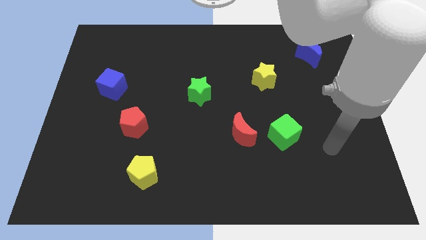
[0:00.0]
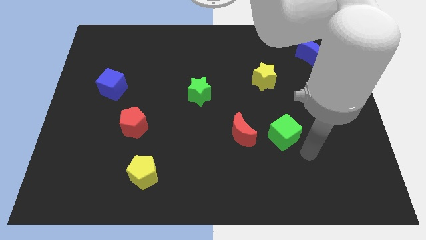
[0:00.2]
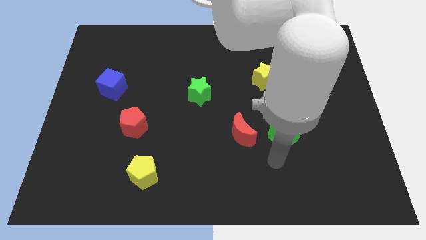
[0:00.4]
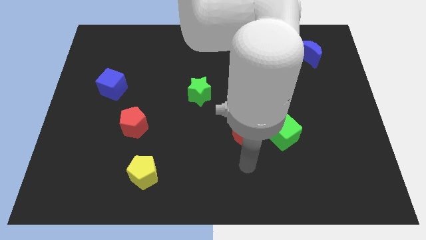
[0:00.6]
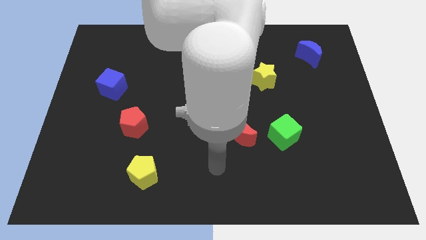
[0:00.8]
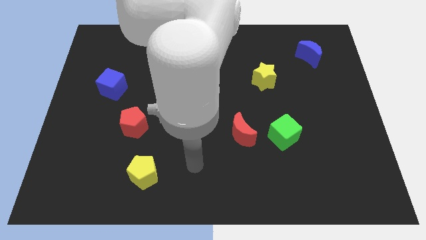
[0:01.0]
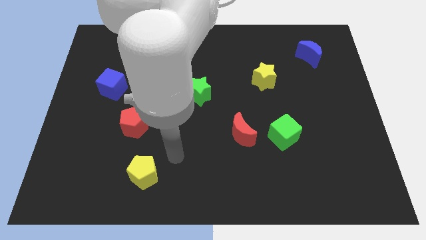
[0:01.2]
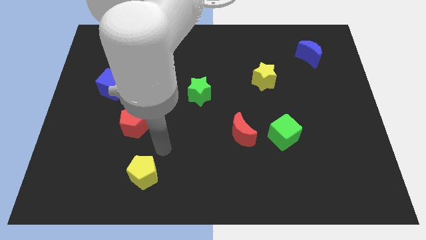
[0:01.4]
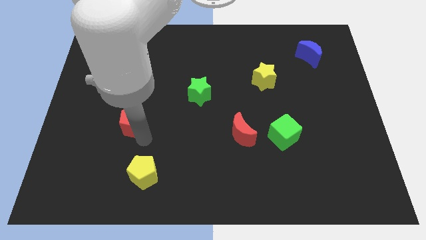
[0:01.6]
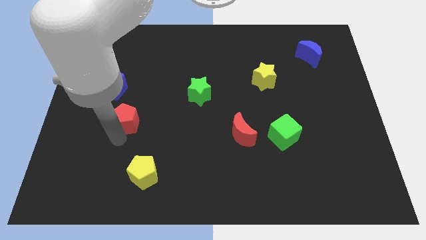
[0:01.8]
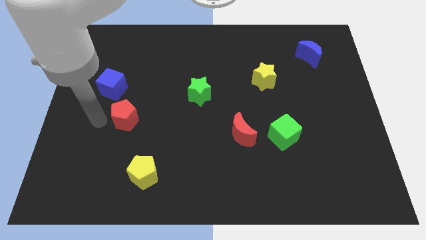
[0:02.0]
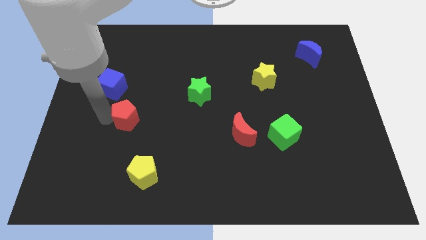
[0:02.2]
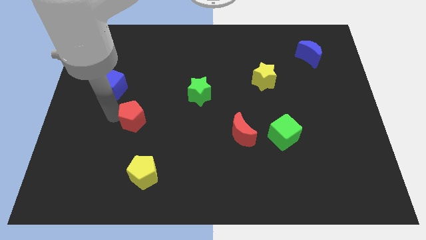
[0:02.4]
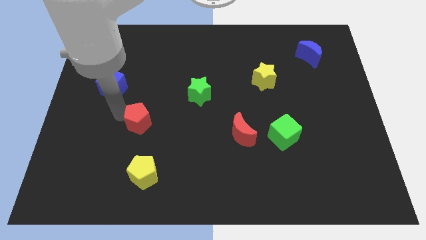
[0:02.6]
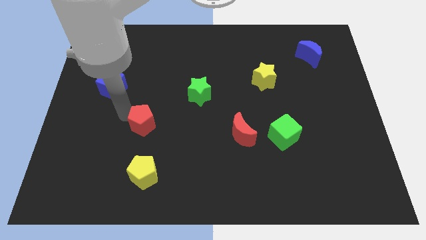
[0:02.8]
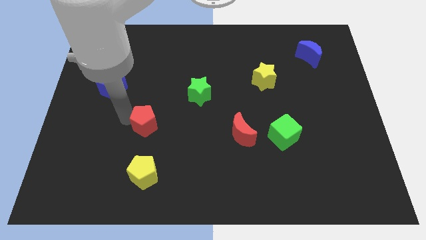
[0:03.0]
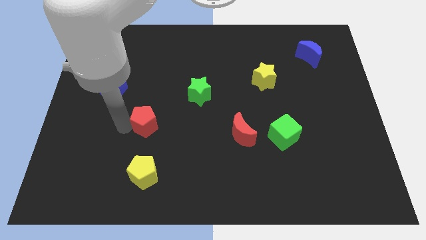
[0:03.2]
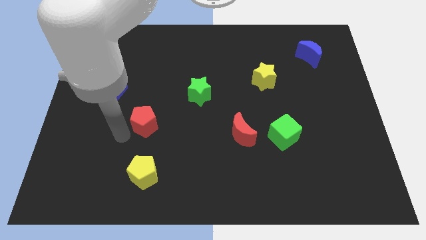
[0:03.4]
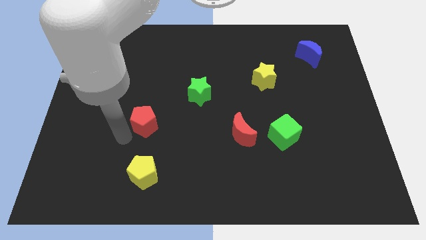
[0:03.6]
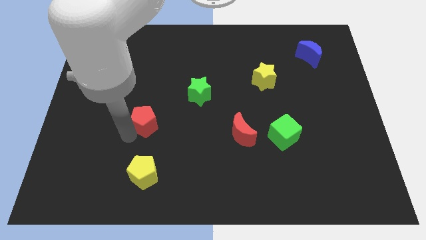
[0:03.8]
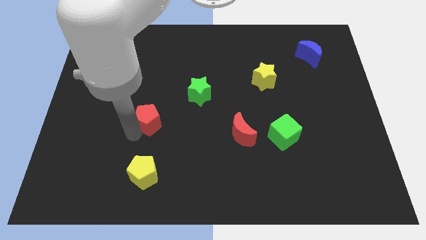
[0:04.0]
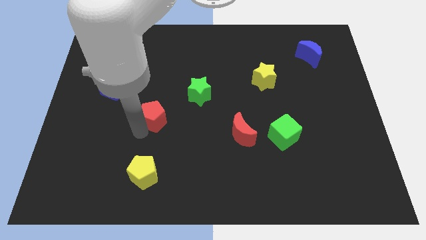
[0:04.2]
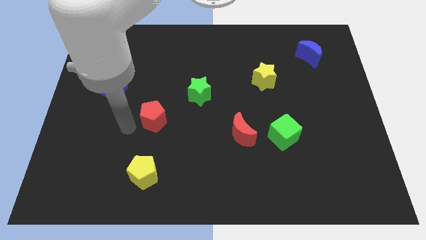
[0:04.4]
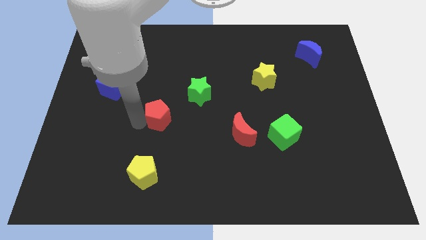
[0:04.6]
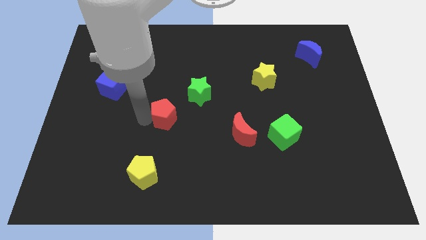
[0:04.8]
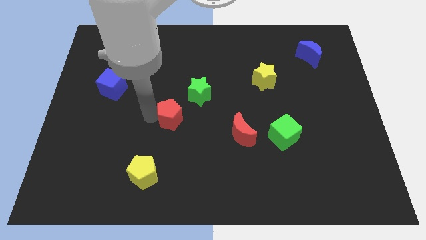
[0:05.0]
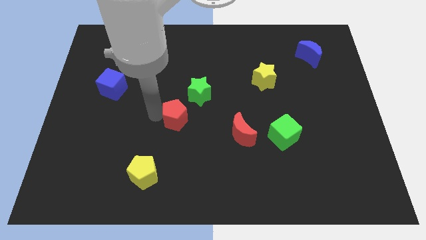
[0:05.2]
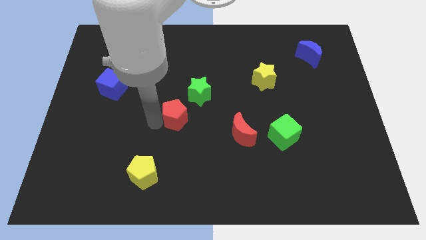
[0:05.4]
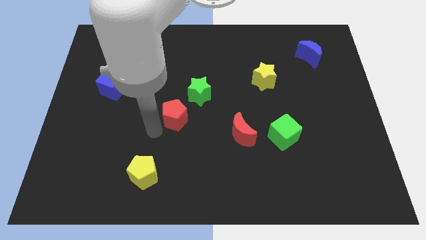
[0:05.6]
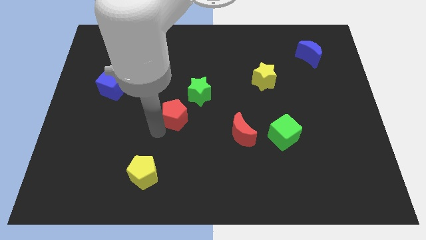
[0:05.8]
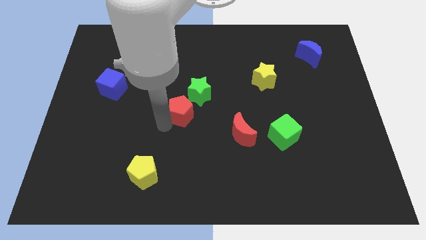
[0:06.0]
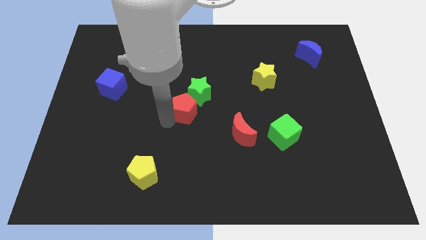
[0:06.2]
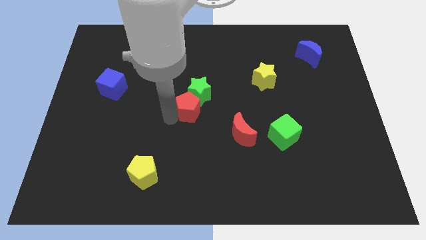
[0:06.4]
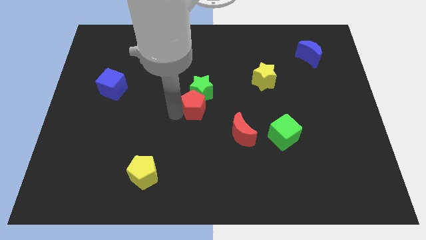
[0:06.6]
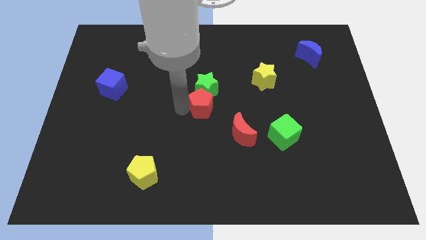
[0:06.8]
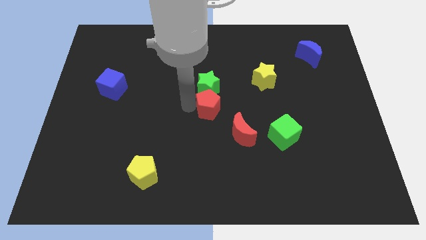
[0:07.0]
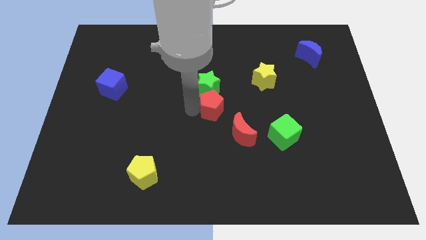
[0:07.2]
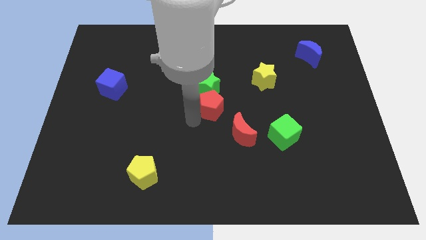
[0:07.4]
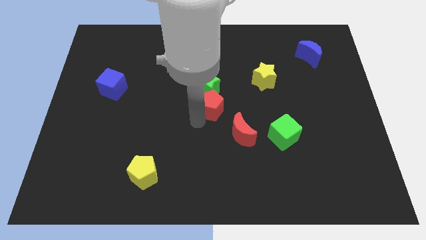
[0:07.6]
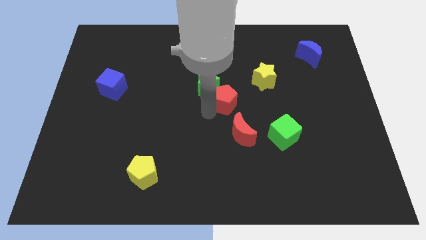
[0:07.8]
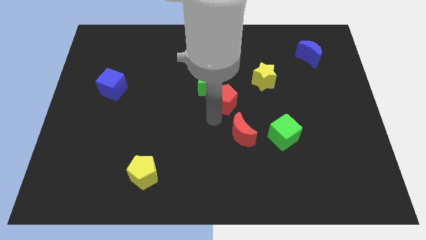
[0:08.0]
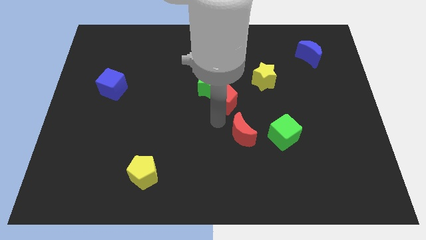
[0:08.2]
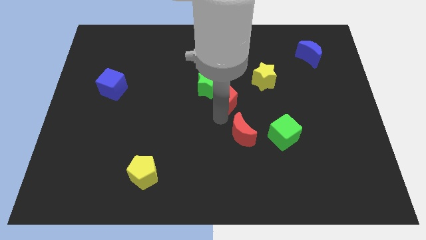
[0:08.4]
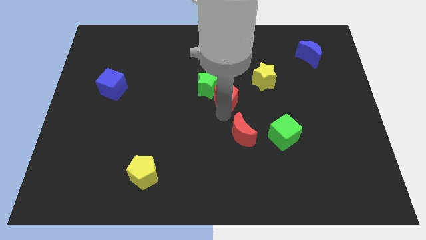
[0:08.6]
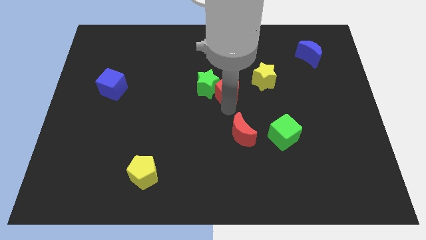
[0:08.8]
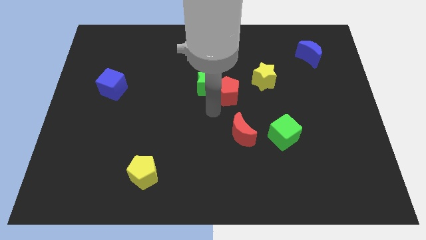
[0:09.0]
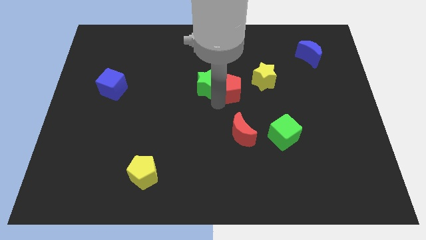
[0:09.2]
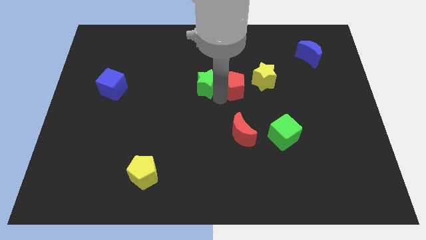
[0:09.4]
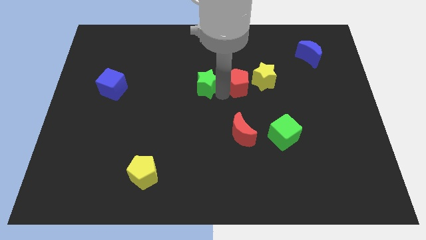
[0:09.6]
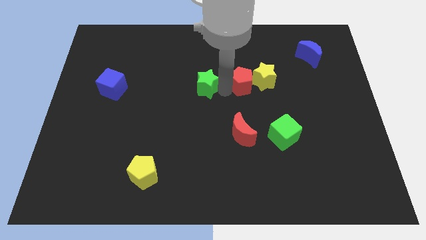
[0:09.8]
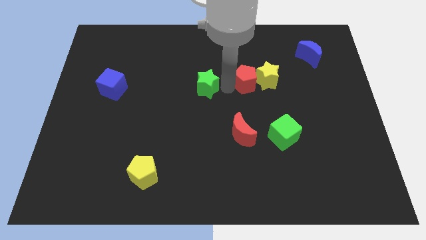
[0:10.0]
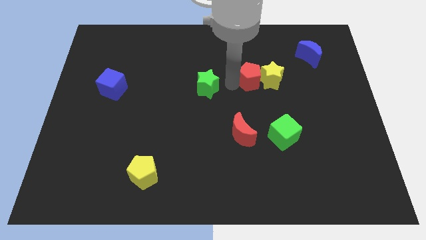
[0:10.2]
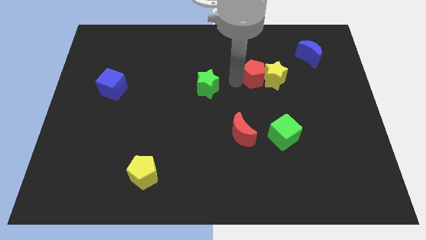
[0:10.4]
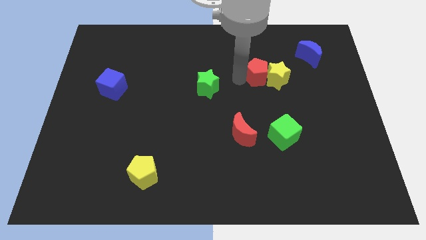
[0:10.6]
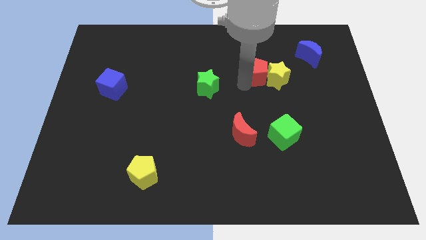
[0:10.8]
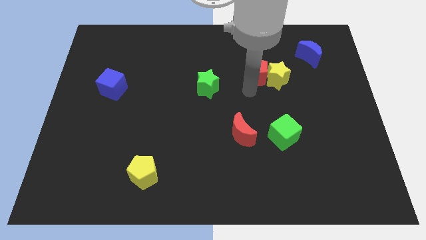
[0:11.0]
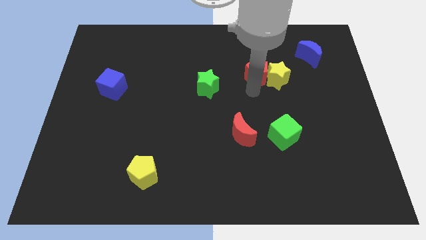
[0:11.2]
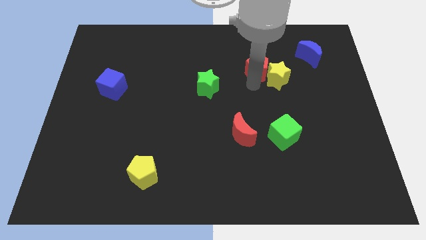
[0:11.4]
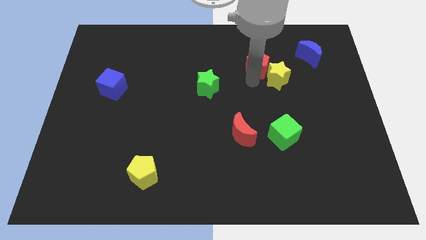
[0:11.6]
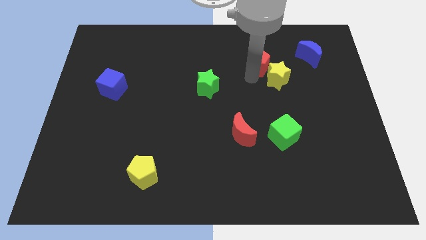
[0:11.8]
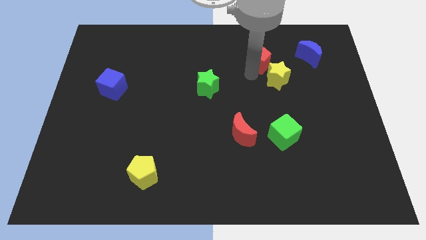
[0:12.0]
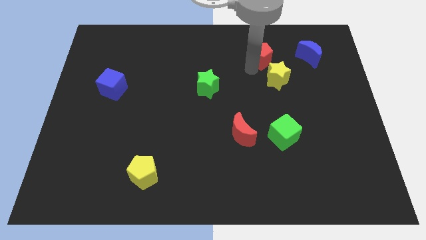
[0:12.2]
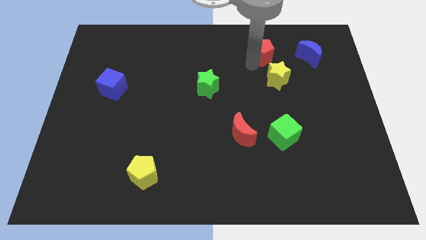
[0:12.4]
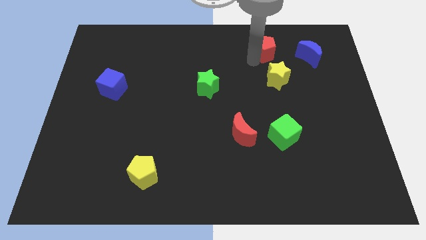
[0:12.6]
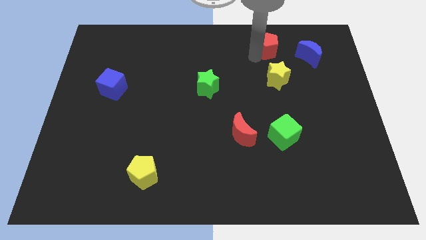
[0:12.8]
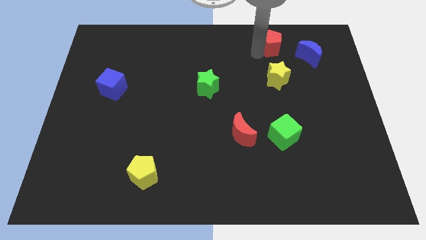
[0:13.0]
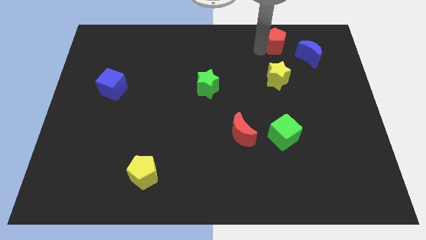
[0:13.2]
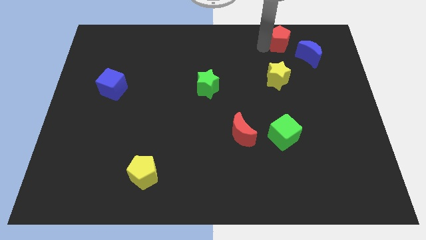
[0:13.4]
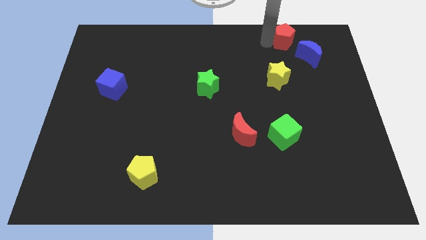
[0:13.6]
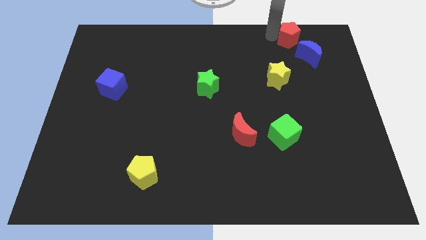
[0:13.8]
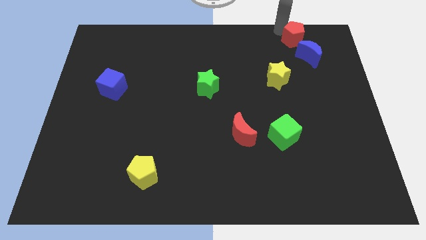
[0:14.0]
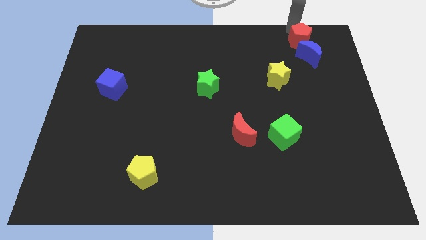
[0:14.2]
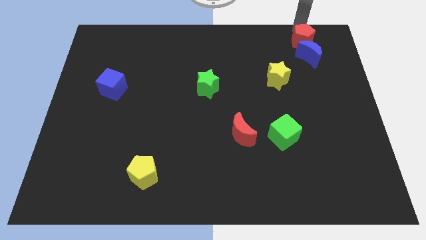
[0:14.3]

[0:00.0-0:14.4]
slide the red pentagon close to the blue moon
